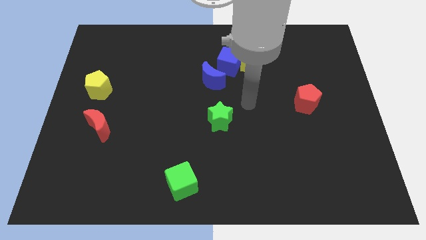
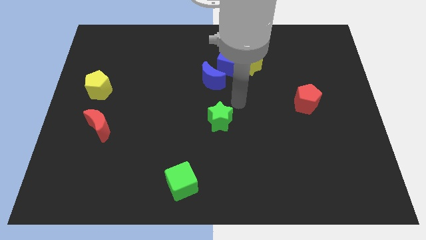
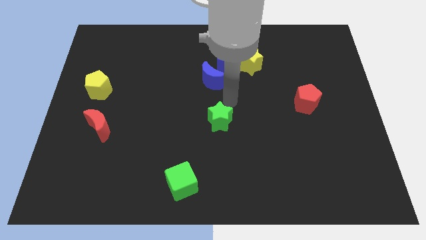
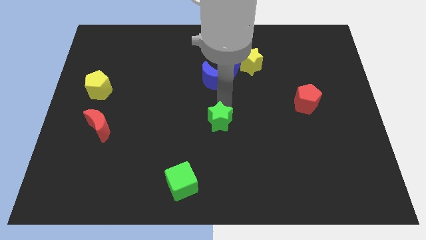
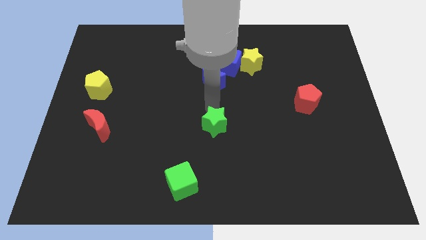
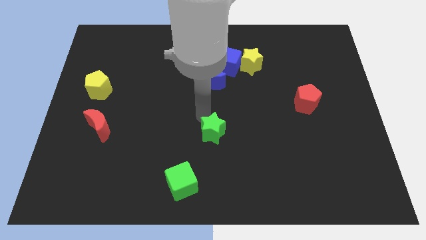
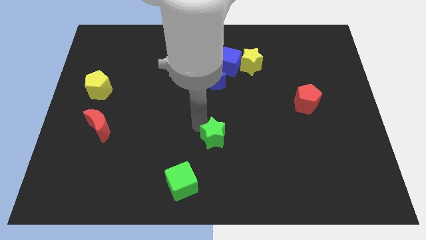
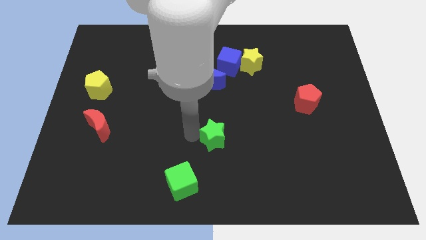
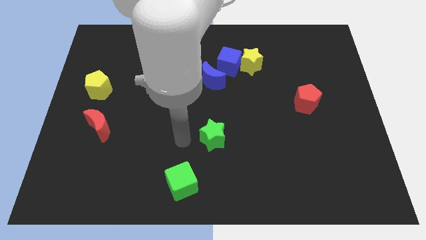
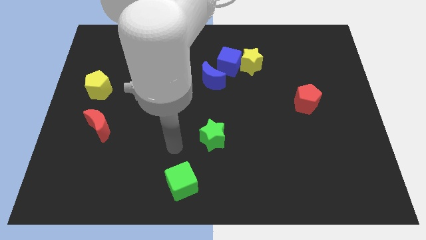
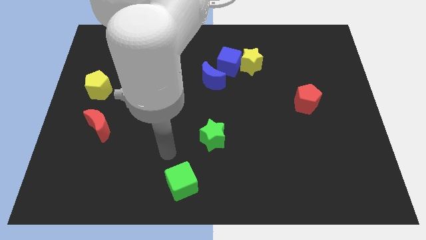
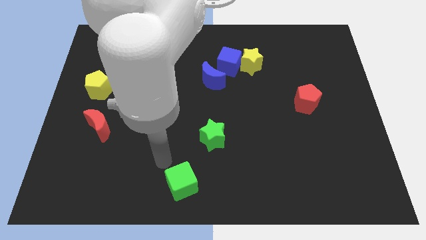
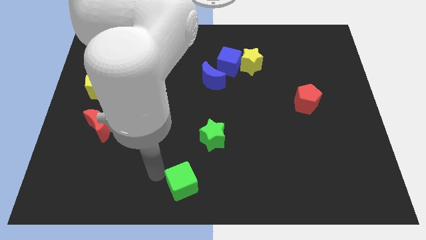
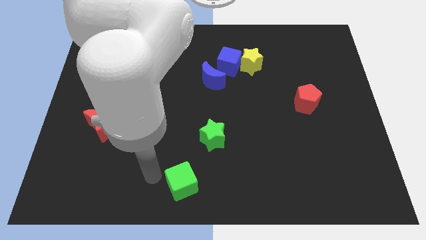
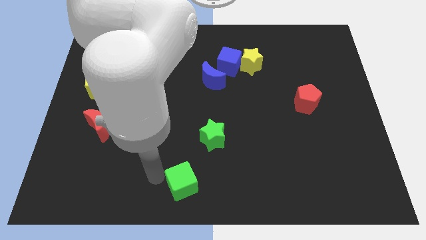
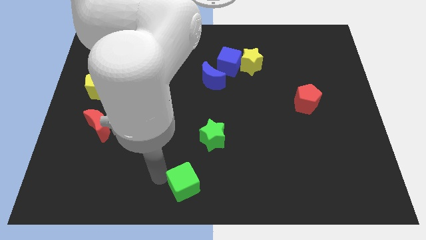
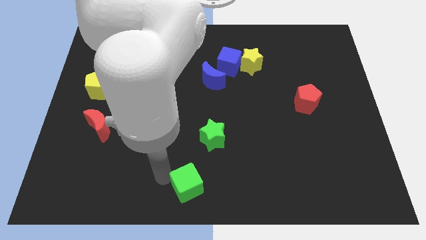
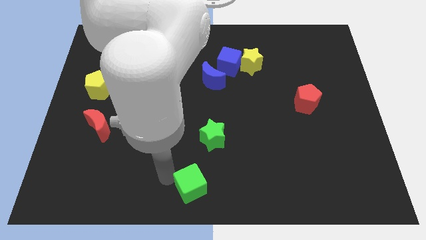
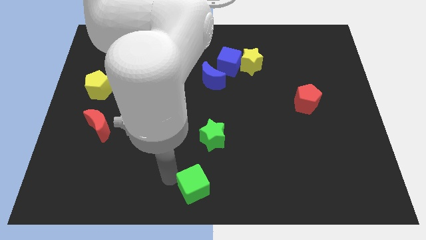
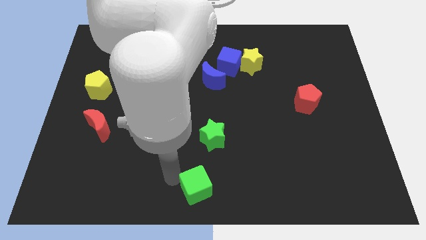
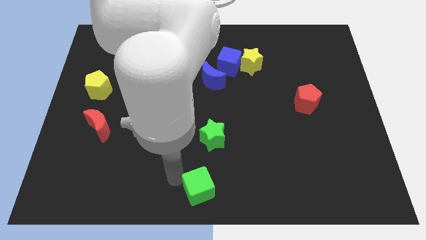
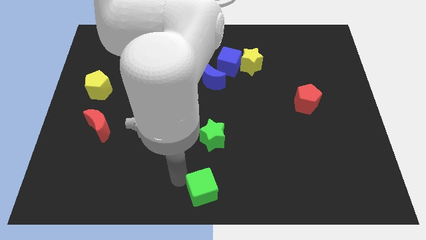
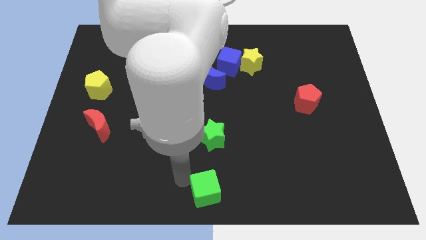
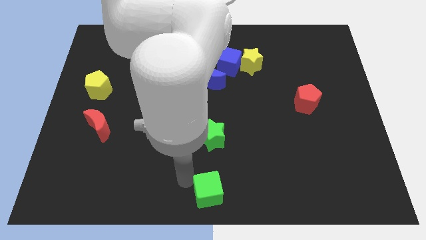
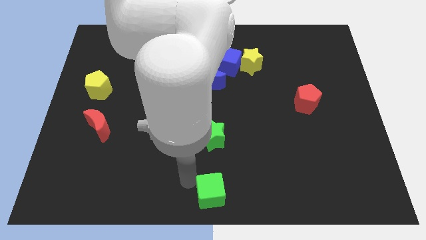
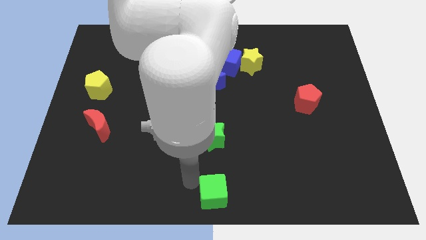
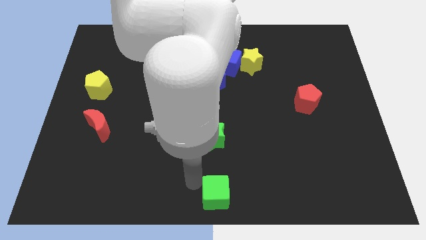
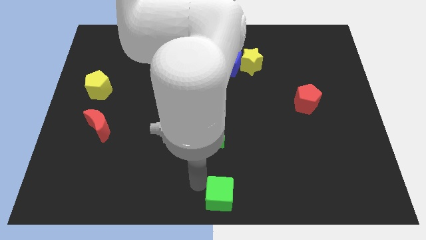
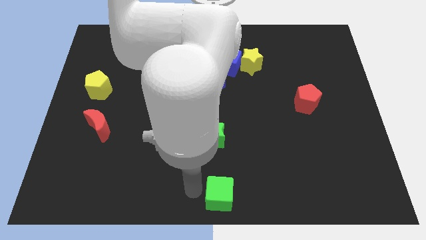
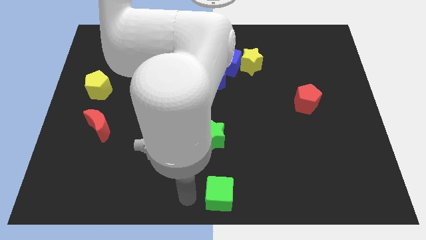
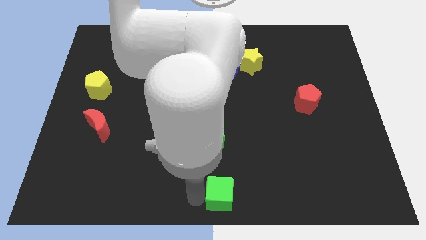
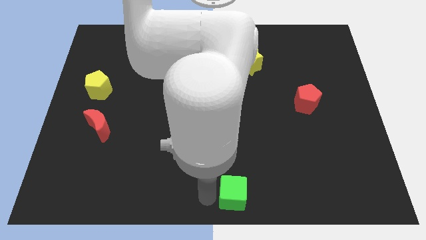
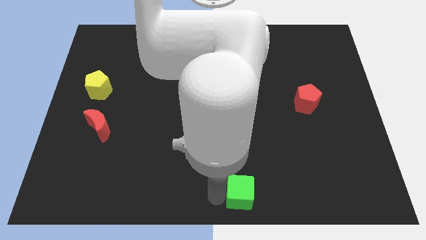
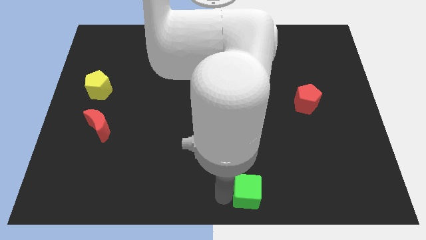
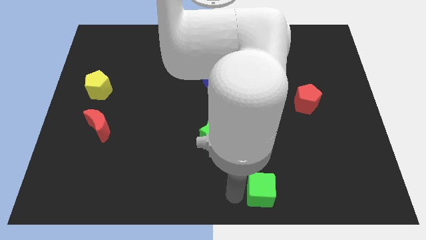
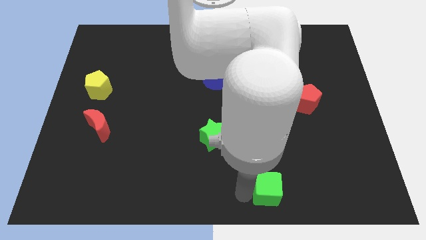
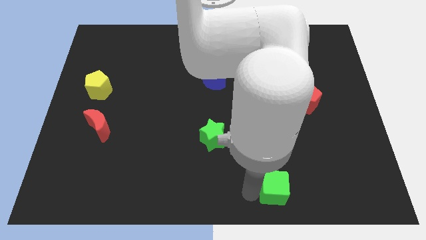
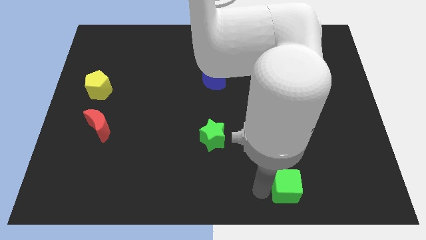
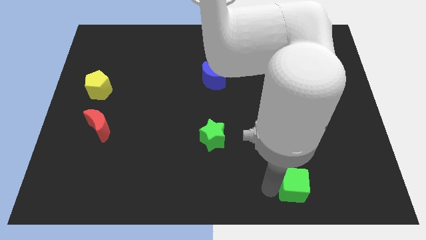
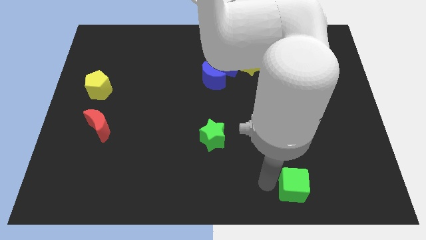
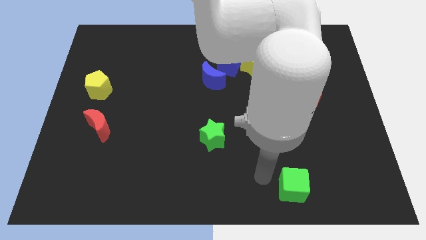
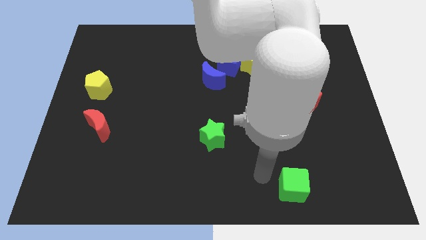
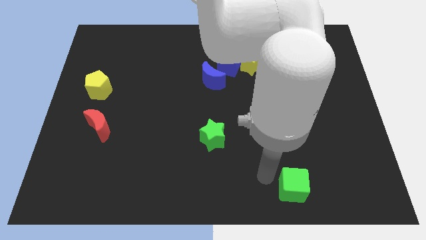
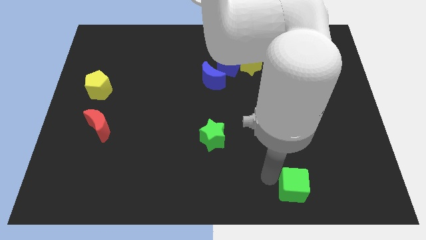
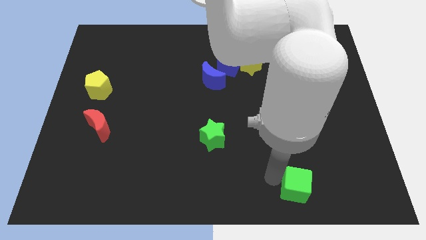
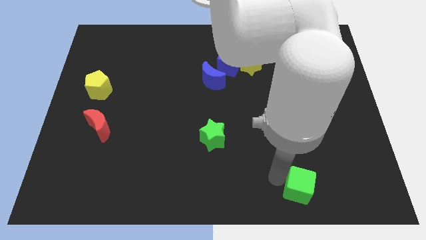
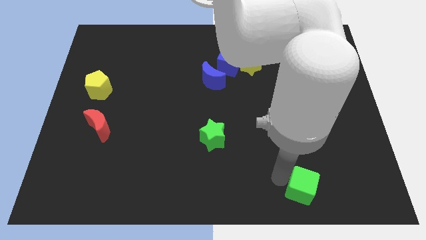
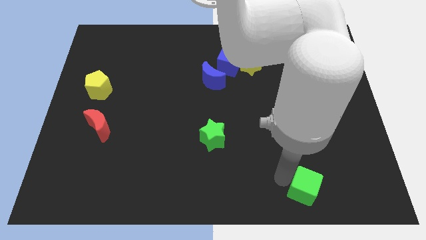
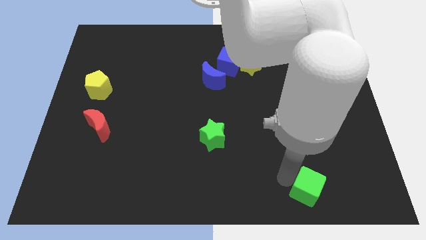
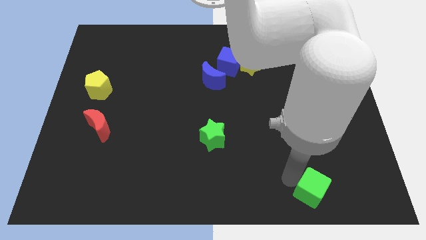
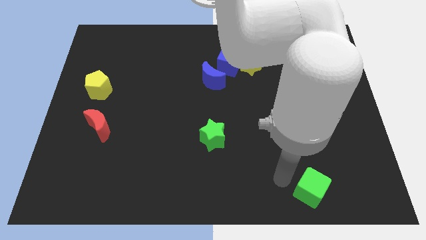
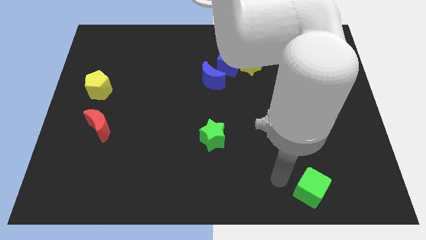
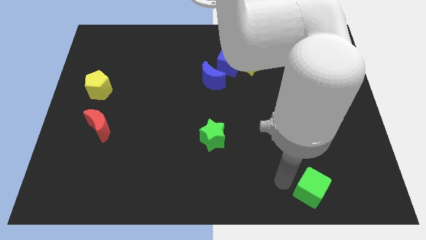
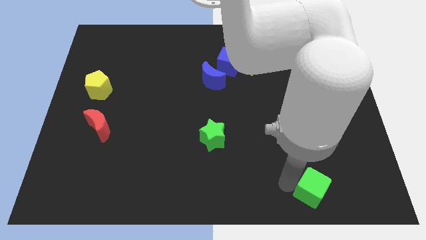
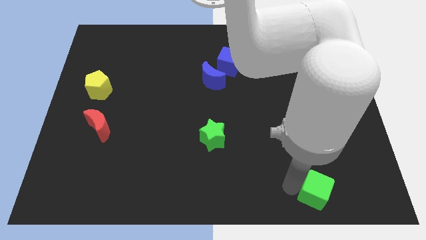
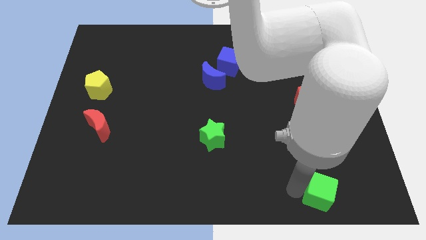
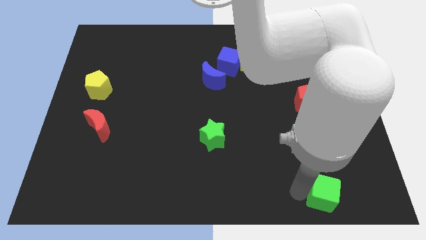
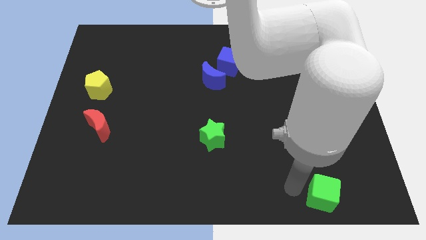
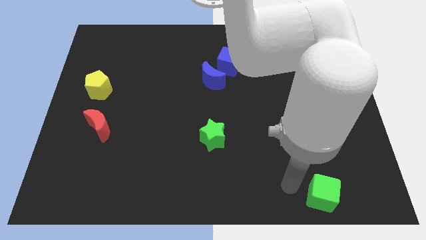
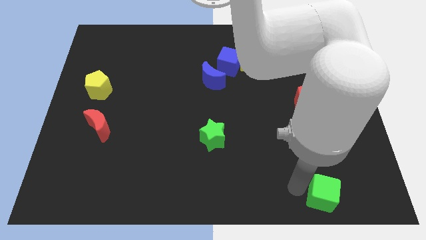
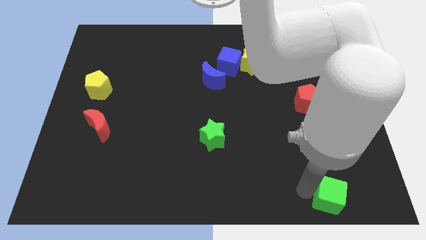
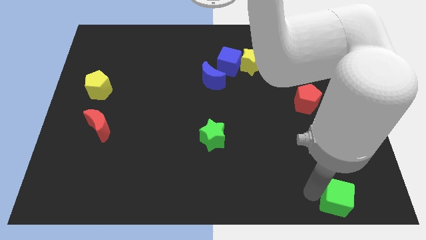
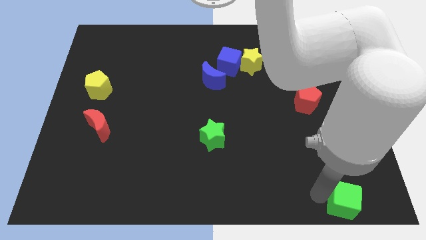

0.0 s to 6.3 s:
move the green cube to the bottom right corner

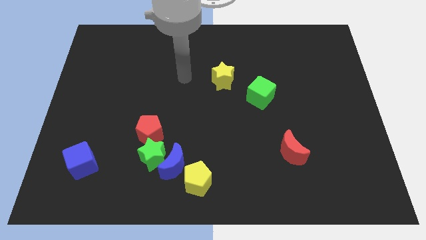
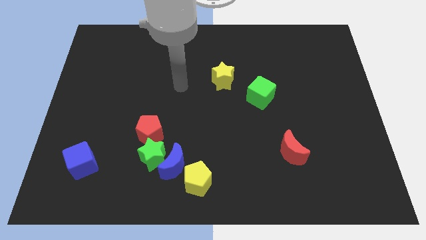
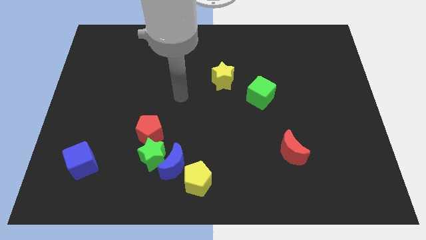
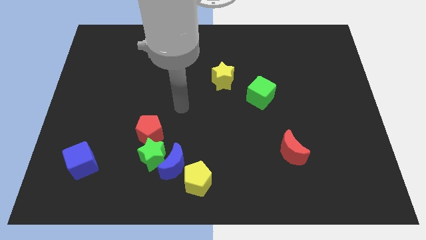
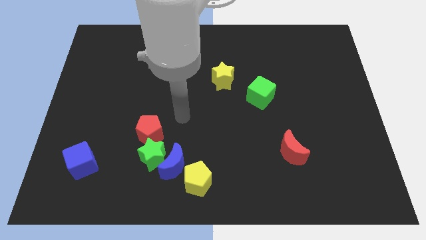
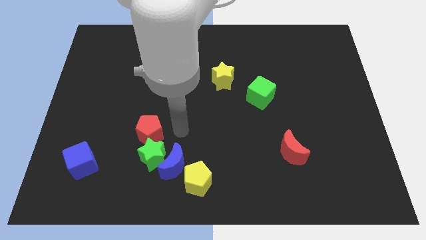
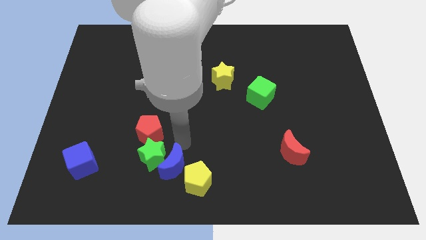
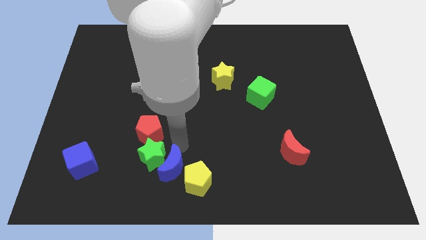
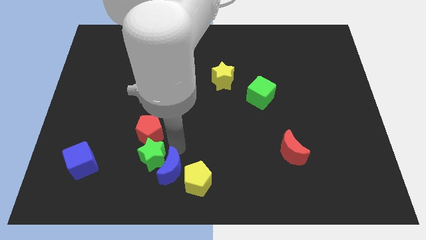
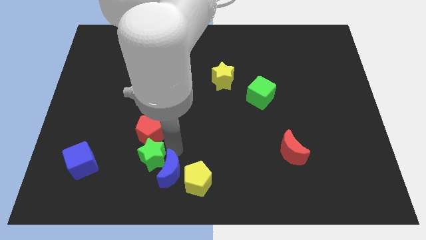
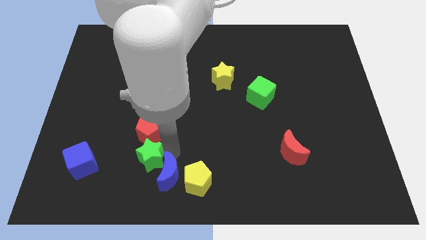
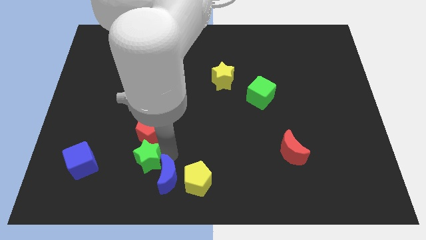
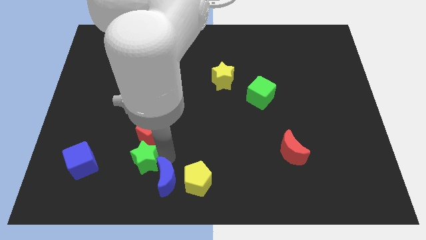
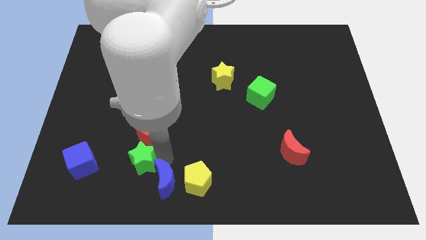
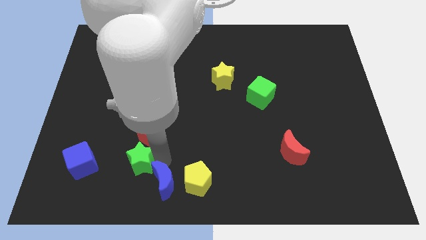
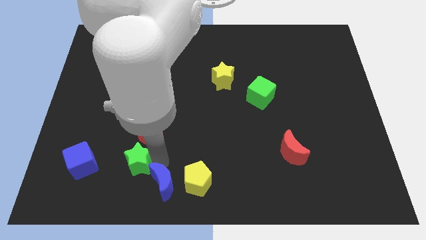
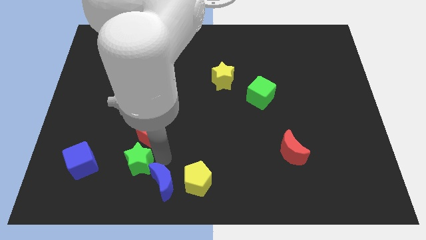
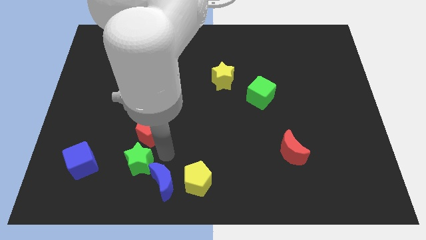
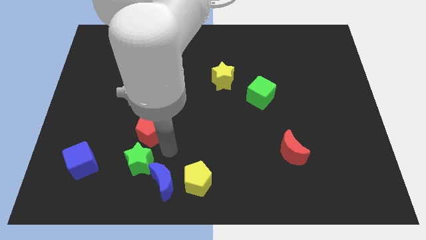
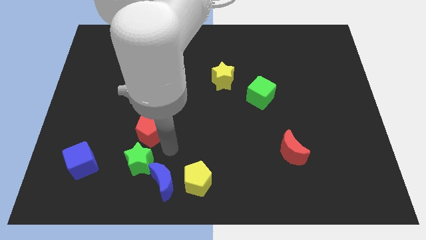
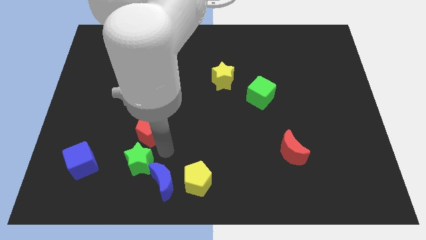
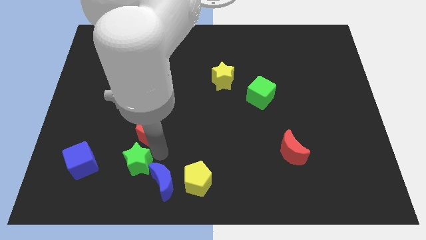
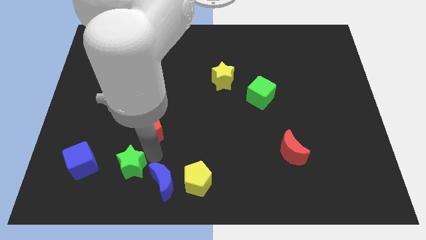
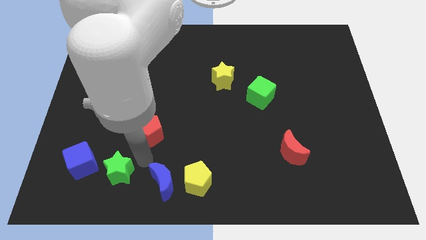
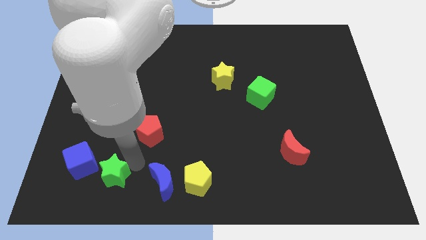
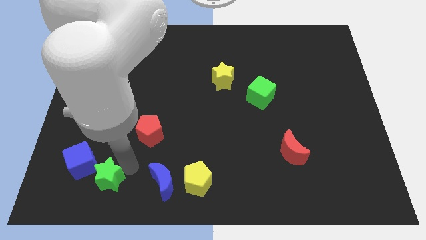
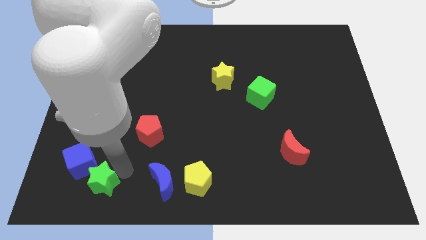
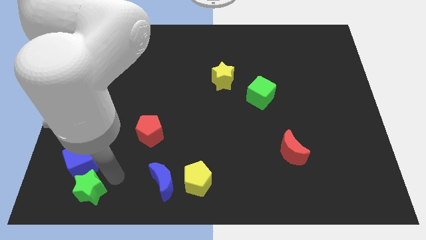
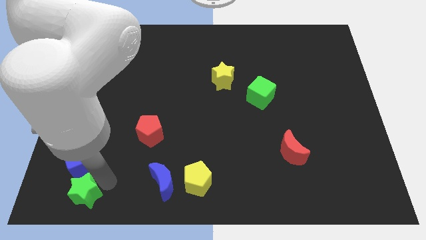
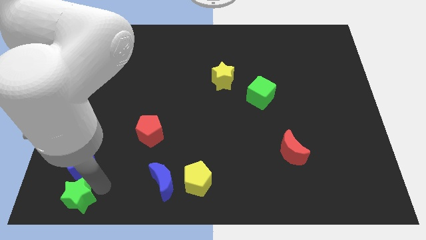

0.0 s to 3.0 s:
put the green star to the lower left corner
